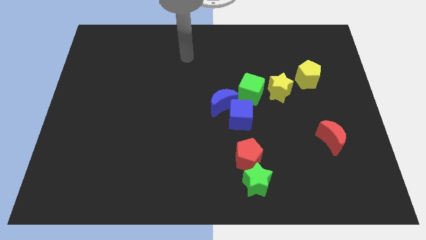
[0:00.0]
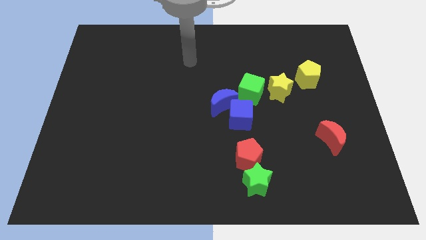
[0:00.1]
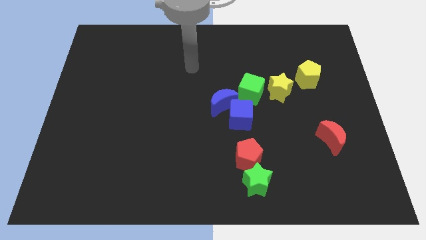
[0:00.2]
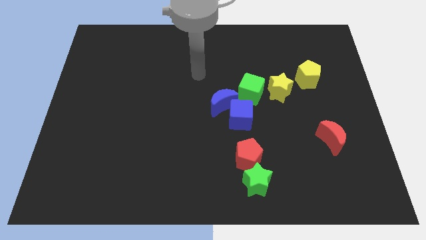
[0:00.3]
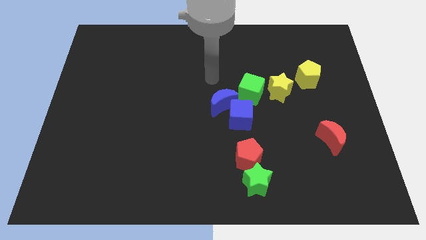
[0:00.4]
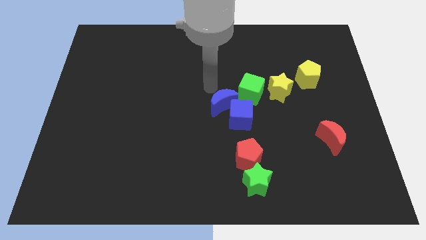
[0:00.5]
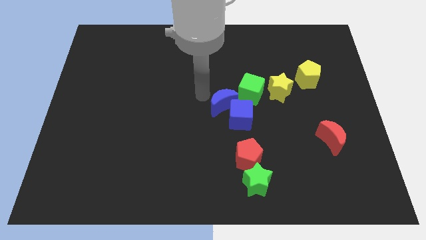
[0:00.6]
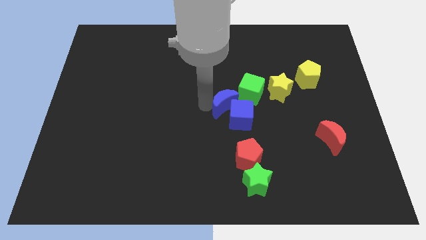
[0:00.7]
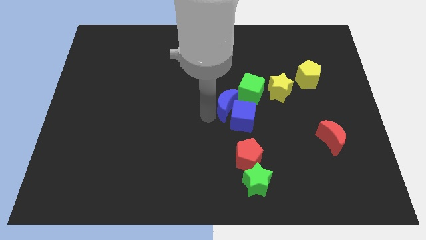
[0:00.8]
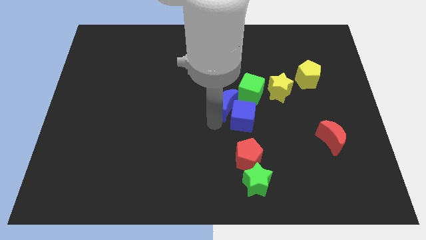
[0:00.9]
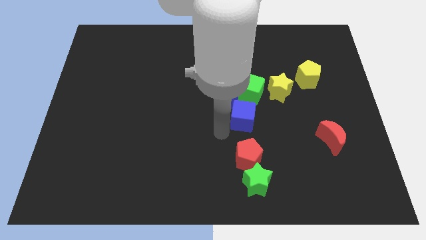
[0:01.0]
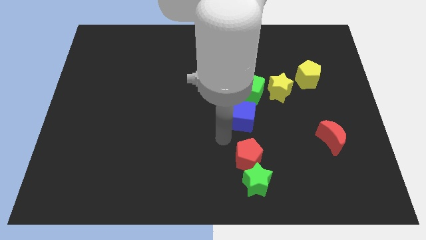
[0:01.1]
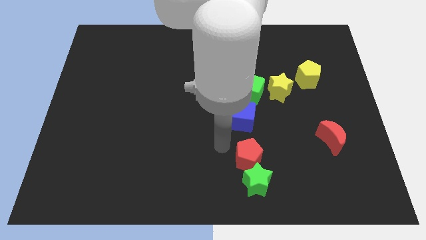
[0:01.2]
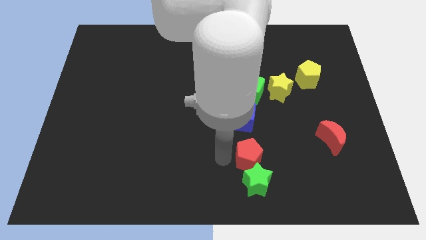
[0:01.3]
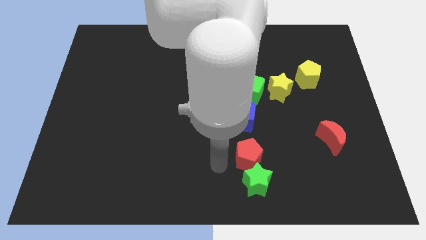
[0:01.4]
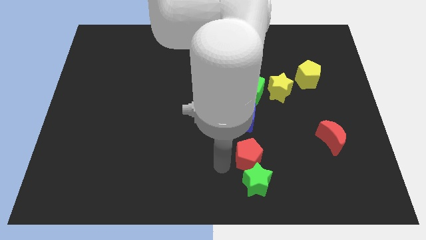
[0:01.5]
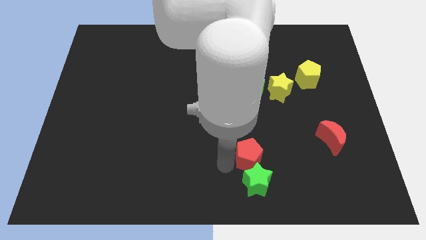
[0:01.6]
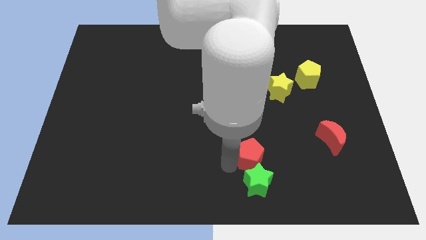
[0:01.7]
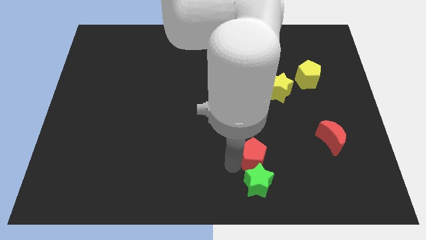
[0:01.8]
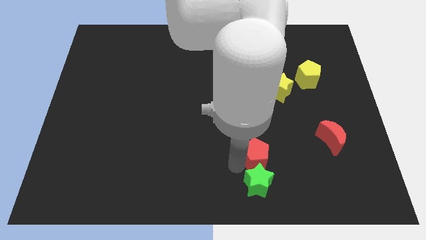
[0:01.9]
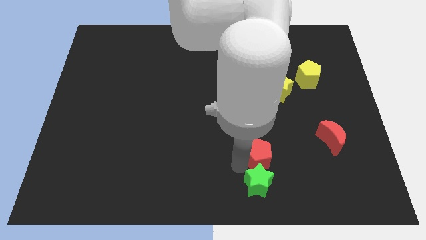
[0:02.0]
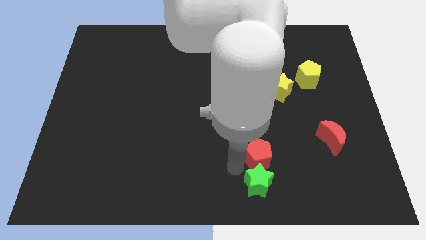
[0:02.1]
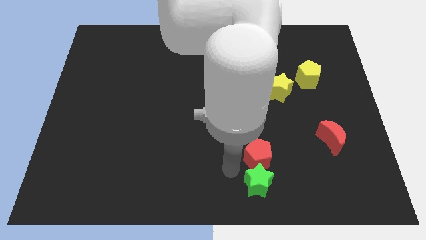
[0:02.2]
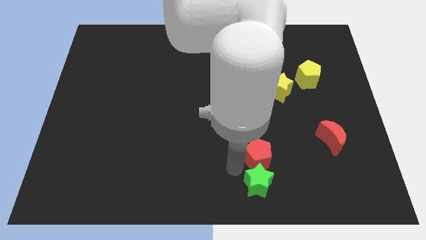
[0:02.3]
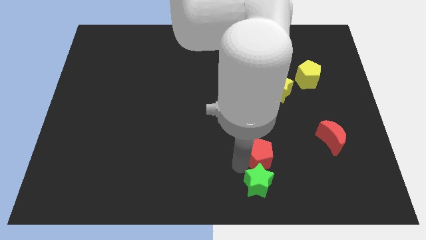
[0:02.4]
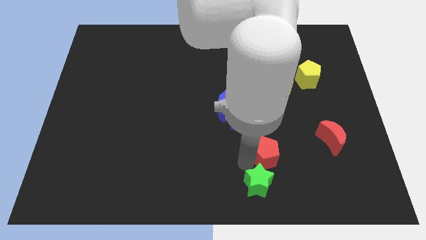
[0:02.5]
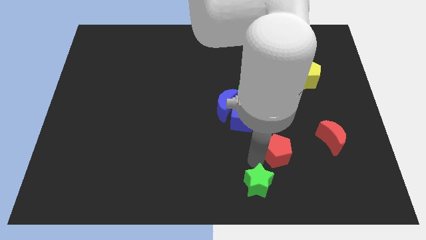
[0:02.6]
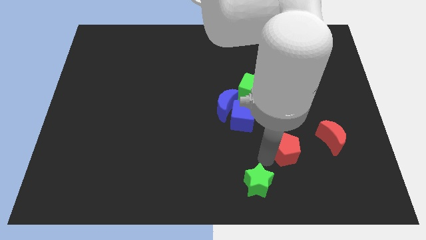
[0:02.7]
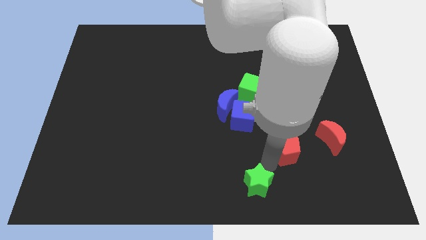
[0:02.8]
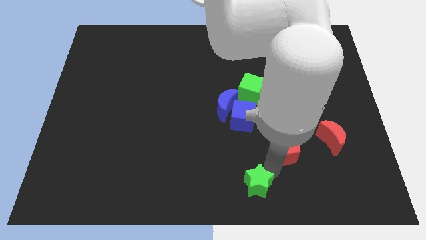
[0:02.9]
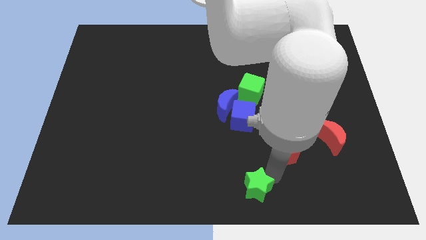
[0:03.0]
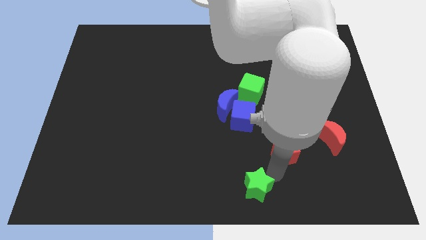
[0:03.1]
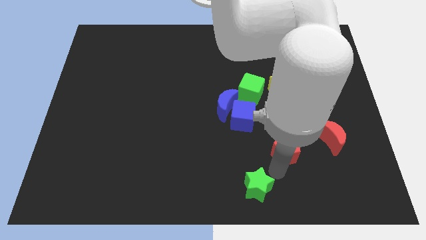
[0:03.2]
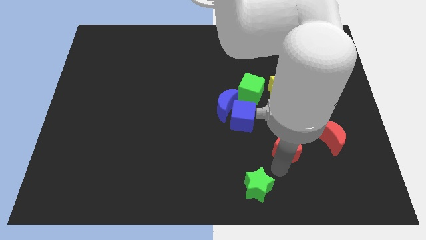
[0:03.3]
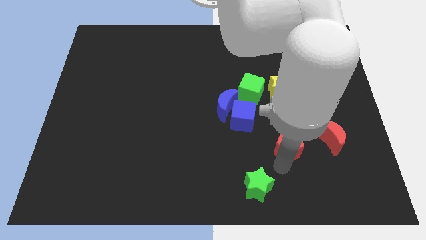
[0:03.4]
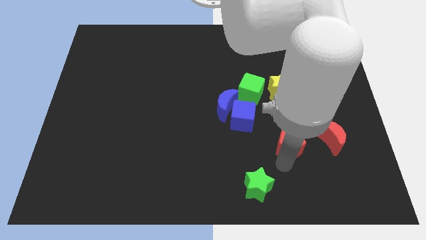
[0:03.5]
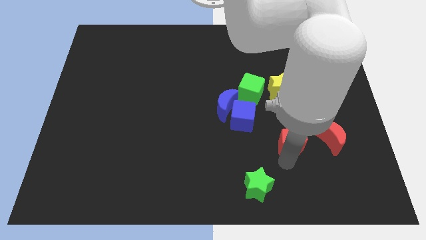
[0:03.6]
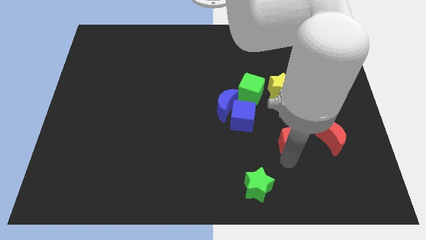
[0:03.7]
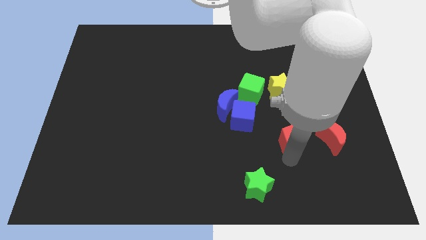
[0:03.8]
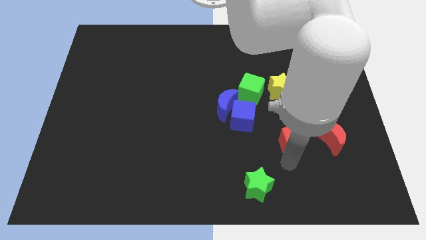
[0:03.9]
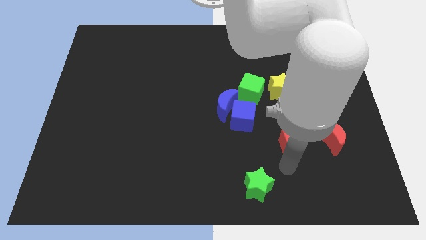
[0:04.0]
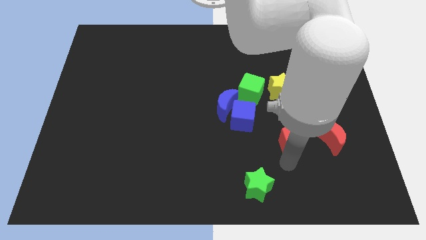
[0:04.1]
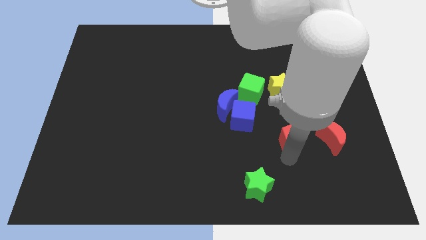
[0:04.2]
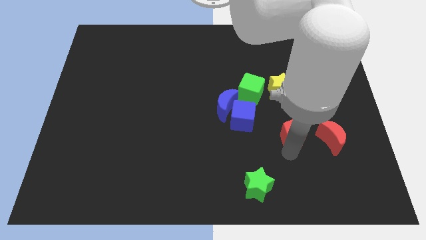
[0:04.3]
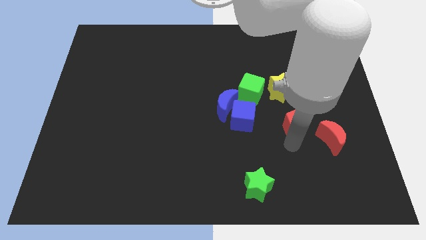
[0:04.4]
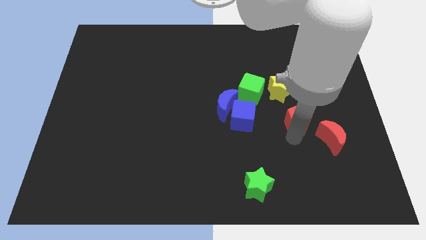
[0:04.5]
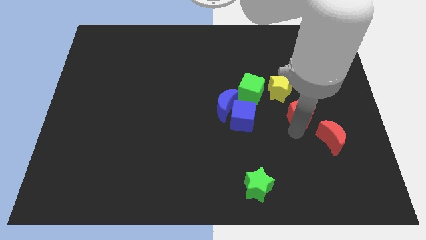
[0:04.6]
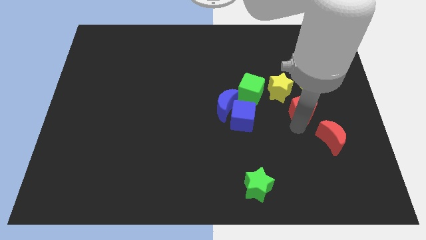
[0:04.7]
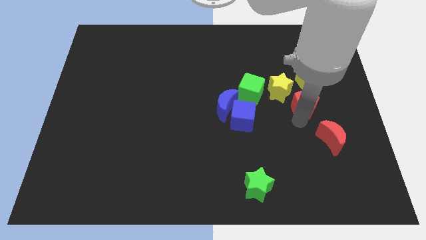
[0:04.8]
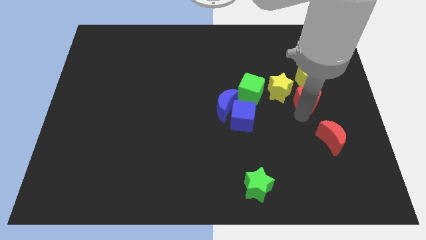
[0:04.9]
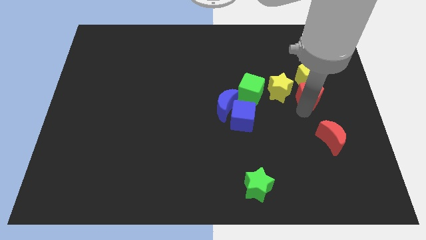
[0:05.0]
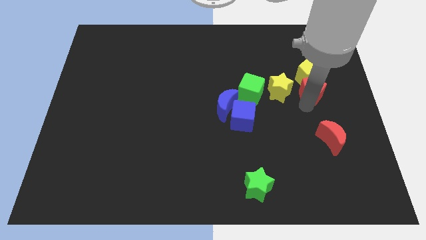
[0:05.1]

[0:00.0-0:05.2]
put the red pentagon to the yellow pentagon

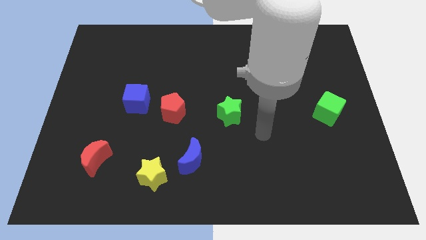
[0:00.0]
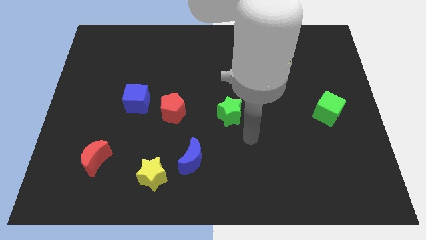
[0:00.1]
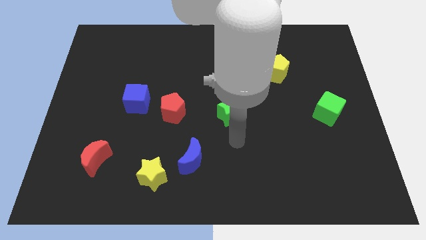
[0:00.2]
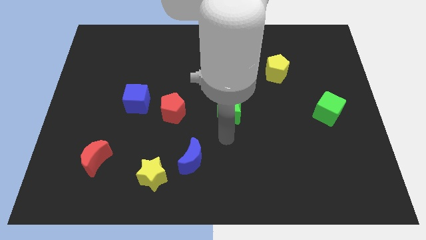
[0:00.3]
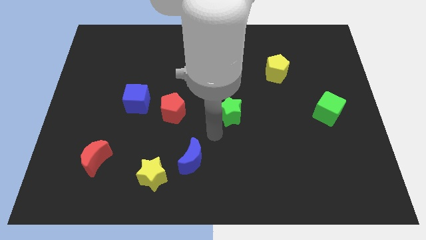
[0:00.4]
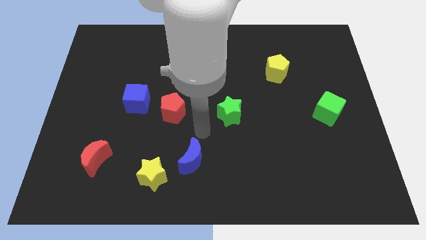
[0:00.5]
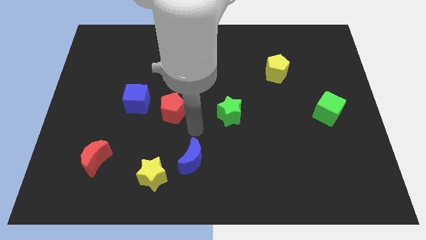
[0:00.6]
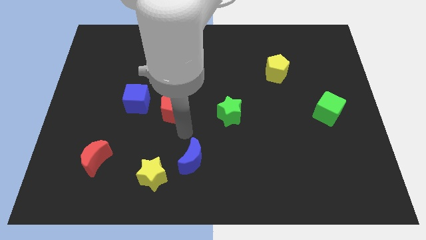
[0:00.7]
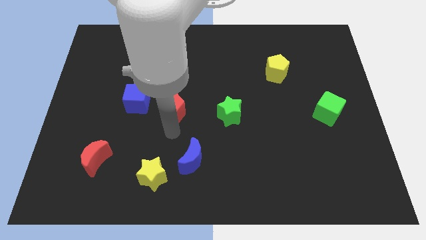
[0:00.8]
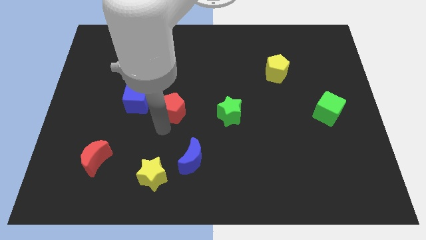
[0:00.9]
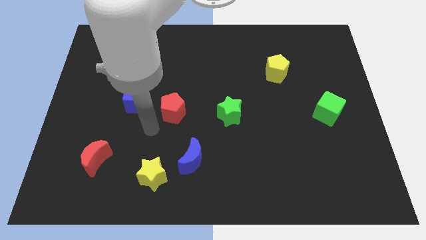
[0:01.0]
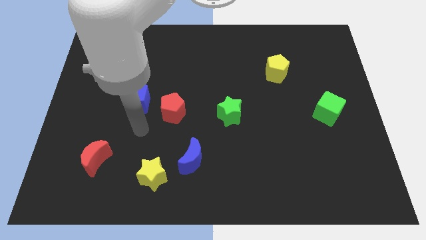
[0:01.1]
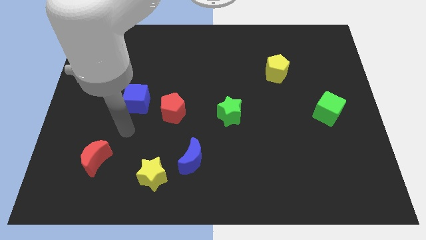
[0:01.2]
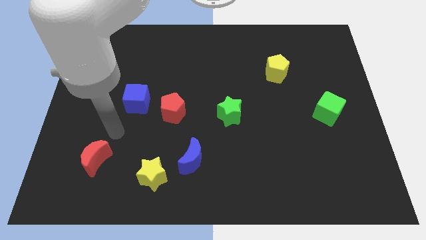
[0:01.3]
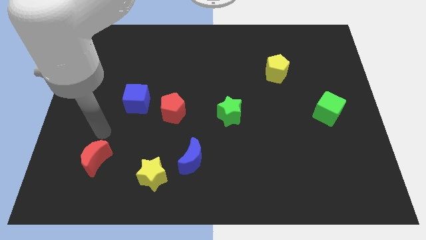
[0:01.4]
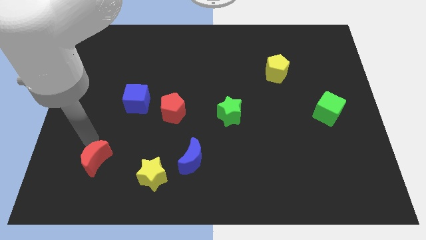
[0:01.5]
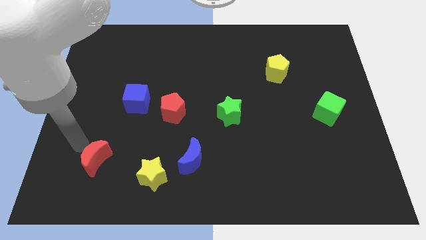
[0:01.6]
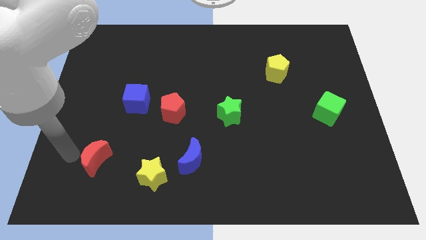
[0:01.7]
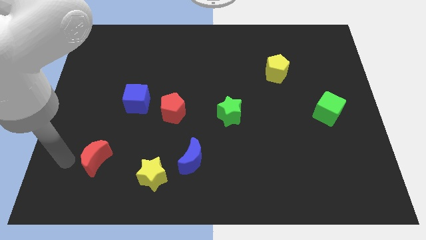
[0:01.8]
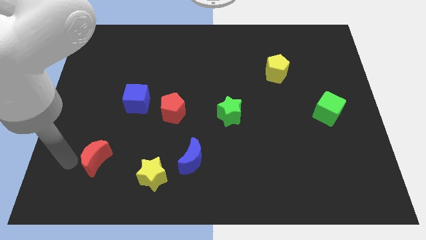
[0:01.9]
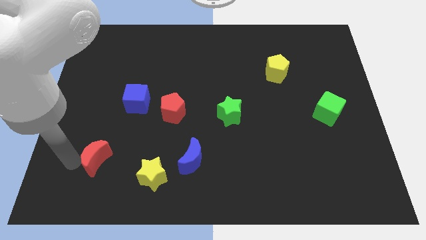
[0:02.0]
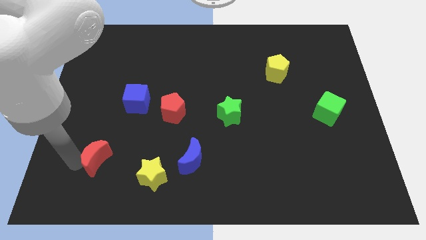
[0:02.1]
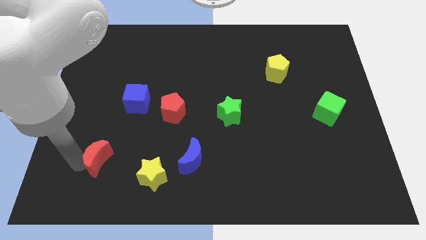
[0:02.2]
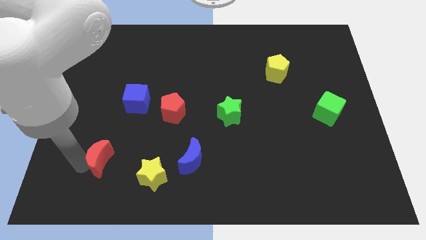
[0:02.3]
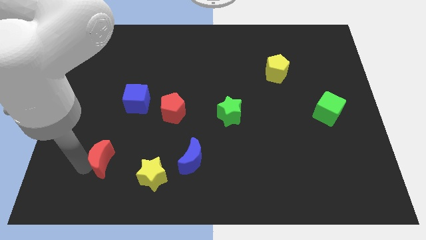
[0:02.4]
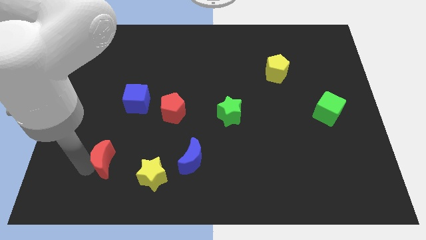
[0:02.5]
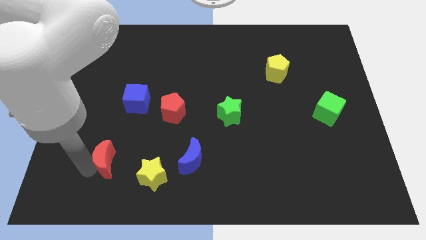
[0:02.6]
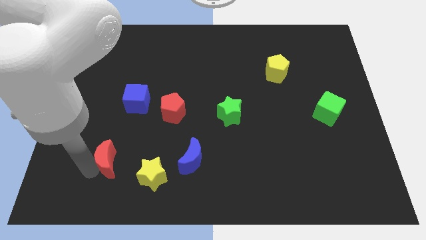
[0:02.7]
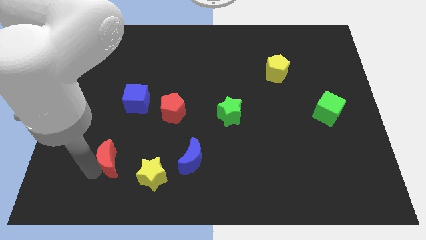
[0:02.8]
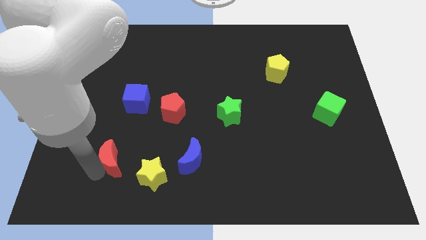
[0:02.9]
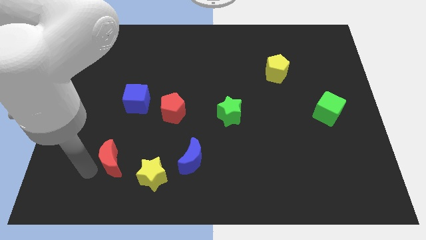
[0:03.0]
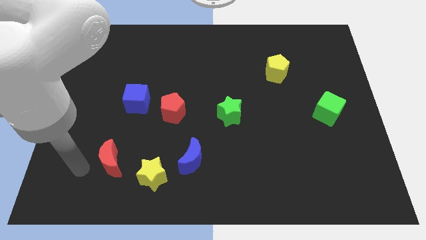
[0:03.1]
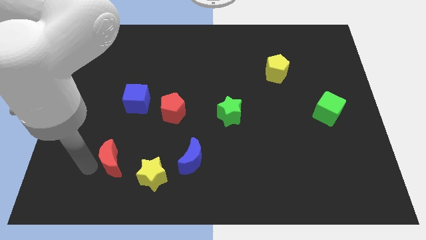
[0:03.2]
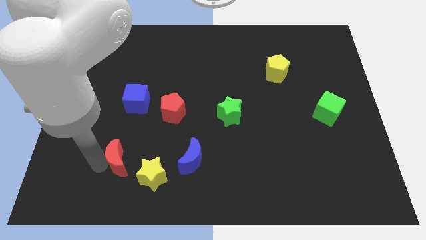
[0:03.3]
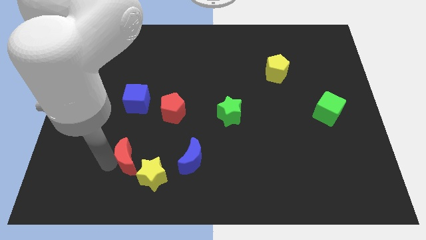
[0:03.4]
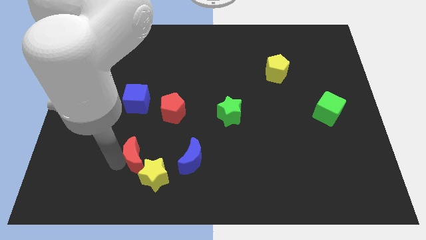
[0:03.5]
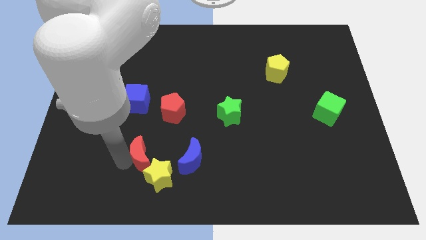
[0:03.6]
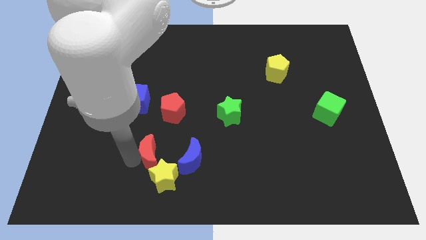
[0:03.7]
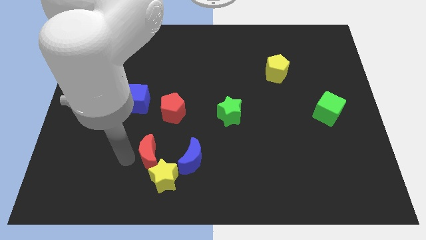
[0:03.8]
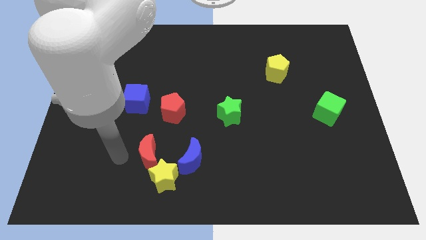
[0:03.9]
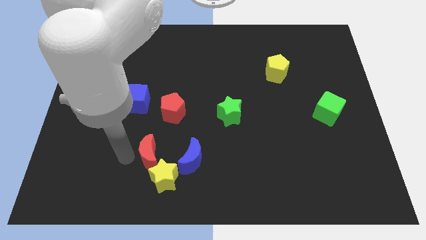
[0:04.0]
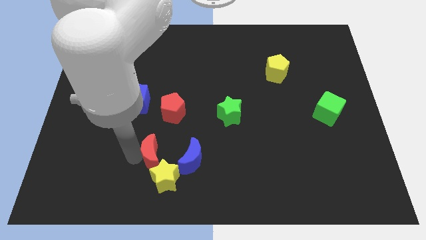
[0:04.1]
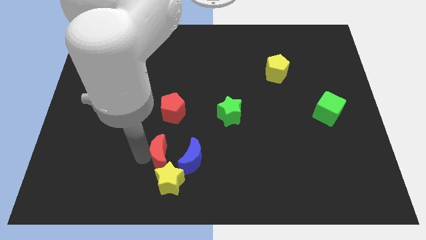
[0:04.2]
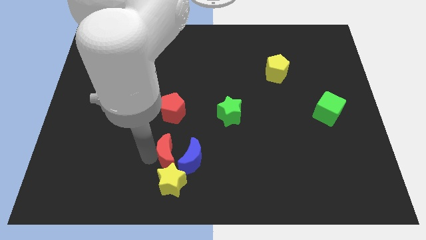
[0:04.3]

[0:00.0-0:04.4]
push the red moon close to the blue moon
